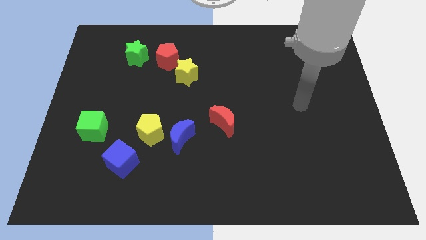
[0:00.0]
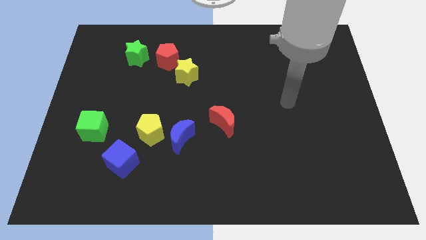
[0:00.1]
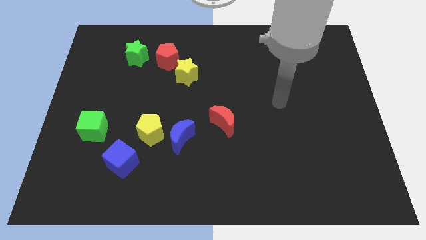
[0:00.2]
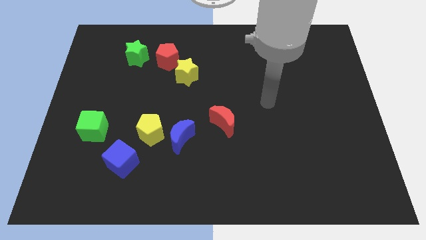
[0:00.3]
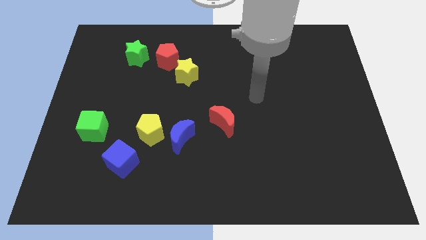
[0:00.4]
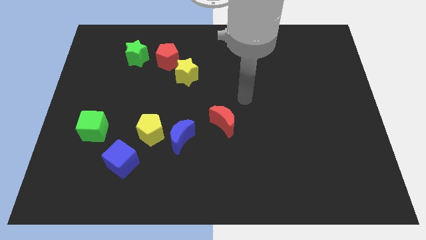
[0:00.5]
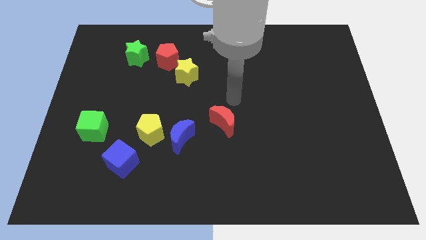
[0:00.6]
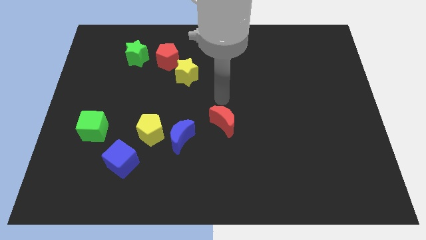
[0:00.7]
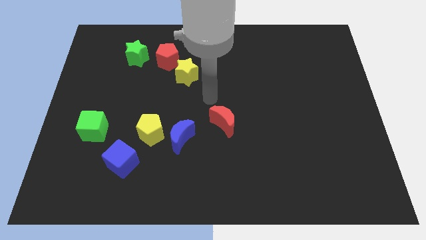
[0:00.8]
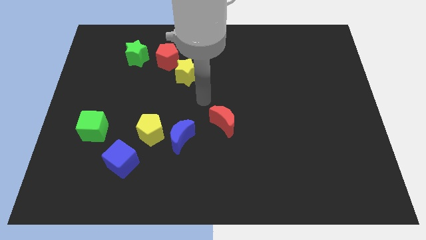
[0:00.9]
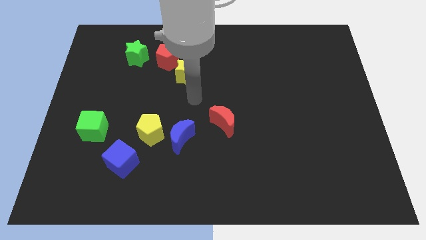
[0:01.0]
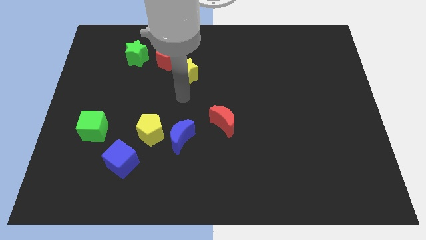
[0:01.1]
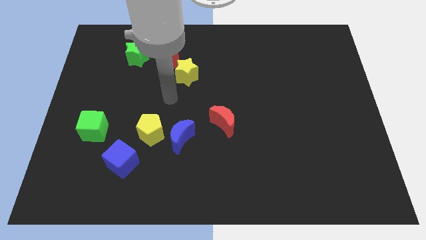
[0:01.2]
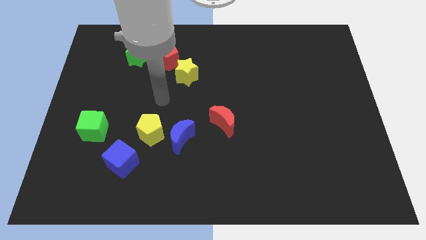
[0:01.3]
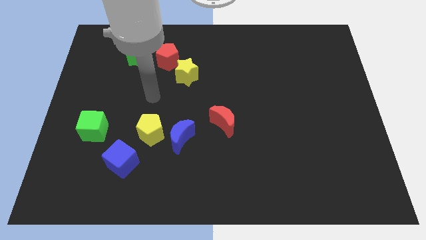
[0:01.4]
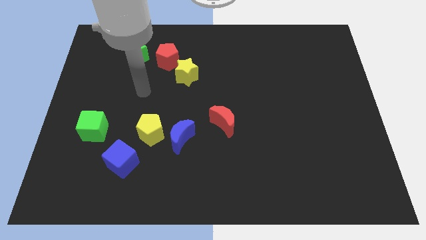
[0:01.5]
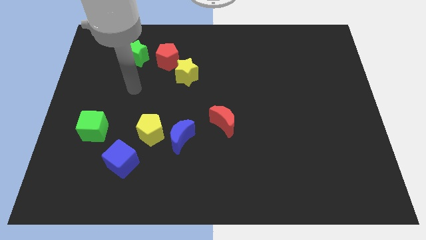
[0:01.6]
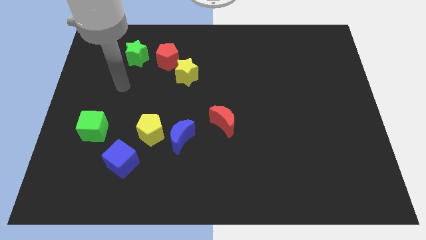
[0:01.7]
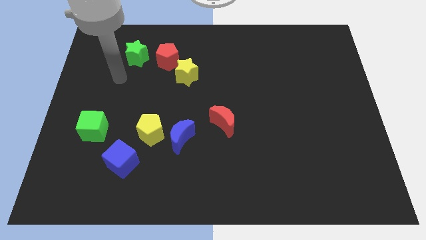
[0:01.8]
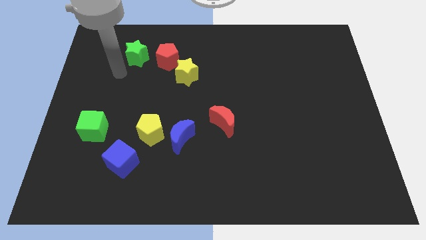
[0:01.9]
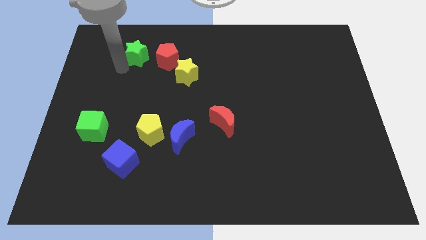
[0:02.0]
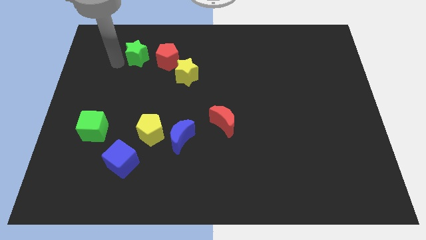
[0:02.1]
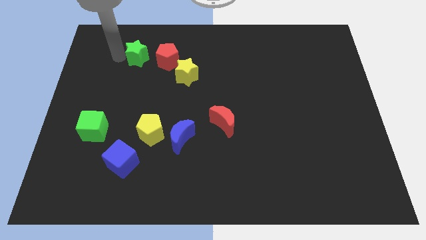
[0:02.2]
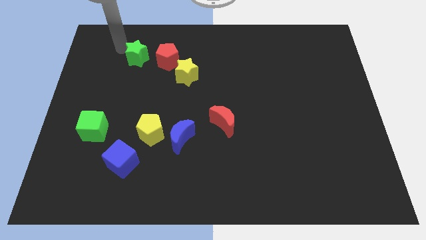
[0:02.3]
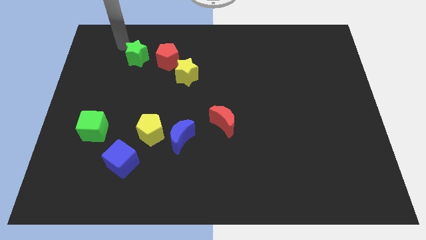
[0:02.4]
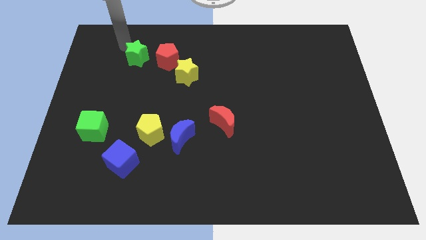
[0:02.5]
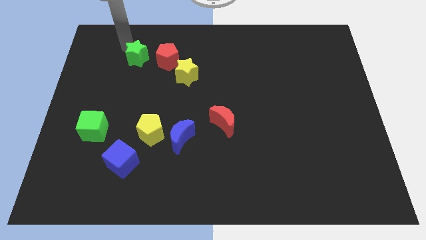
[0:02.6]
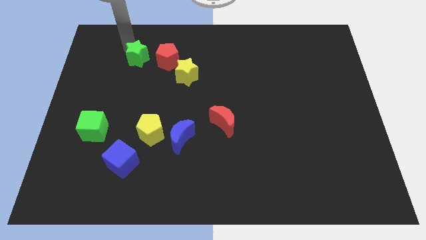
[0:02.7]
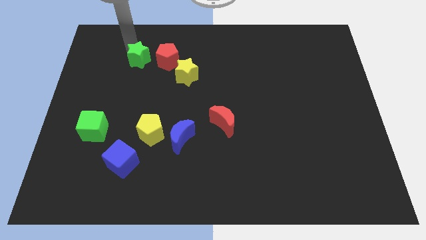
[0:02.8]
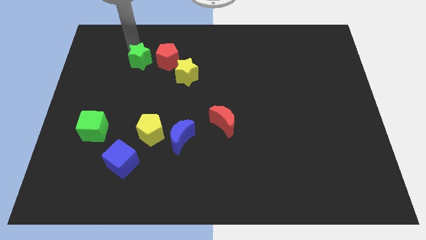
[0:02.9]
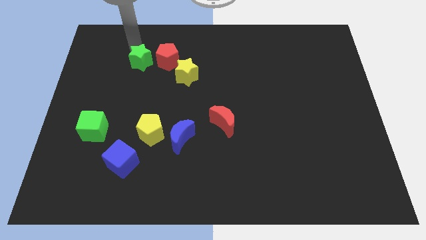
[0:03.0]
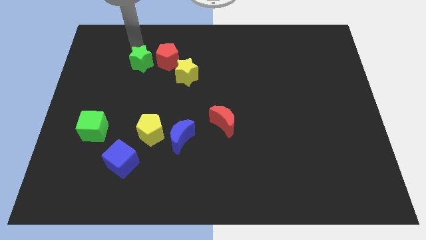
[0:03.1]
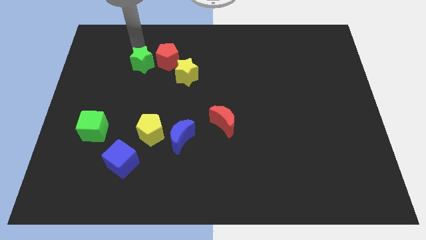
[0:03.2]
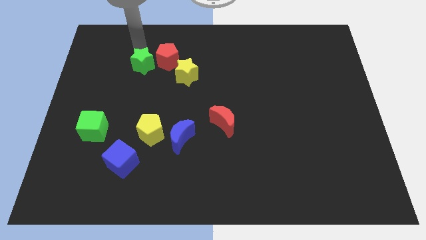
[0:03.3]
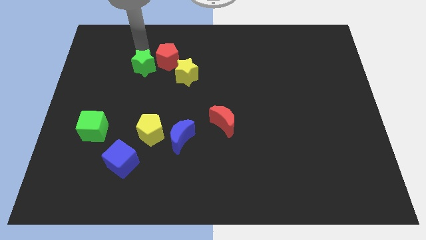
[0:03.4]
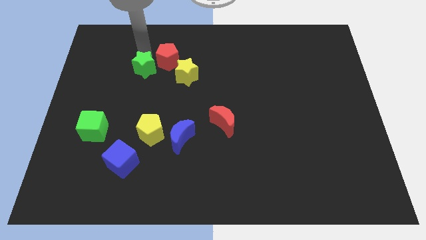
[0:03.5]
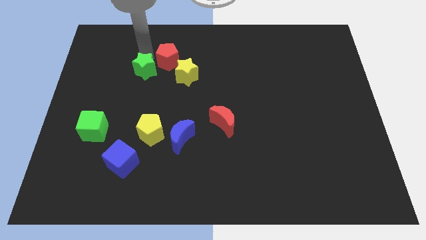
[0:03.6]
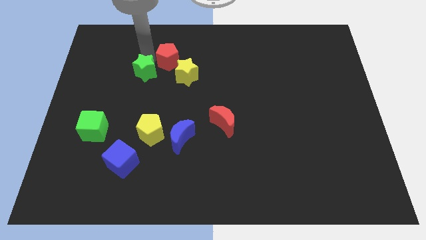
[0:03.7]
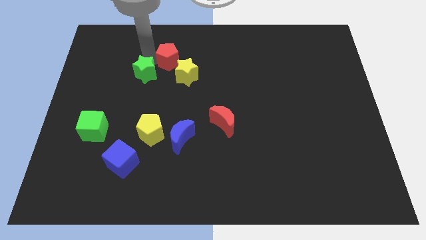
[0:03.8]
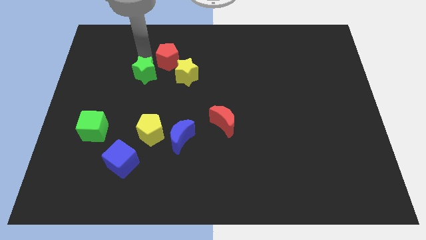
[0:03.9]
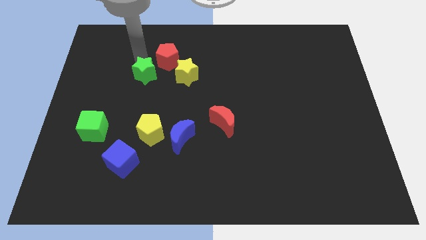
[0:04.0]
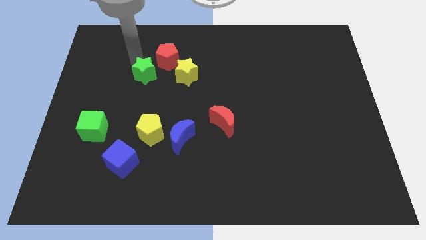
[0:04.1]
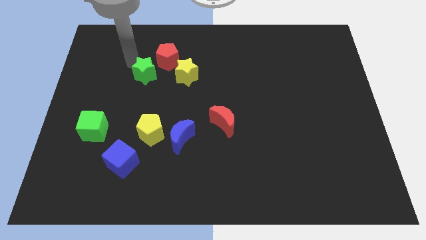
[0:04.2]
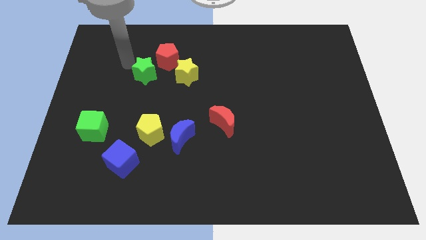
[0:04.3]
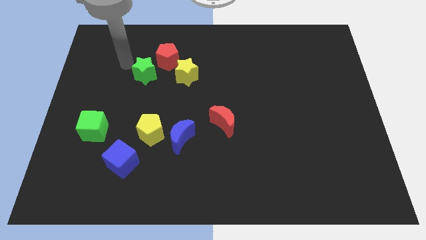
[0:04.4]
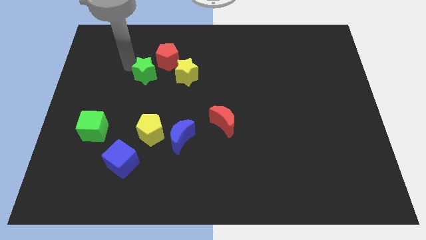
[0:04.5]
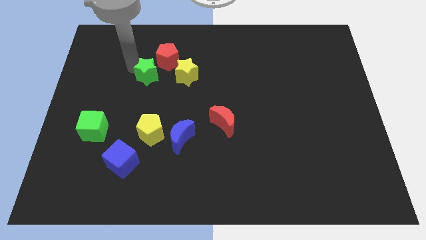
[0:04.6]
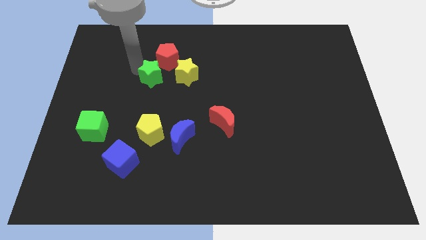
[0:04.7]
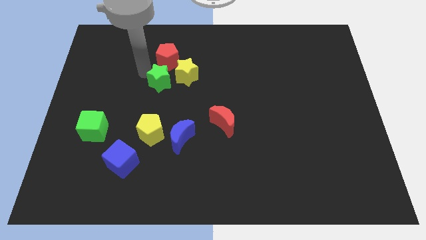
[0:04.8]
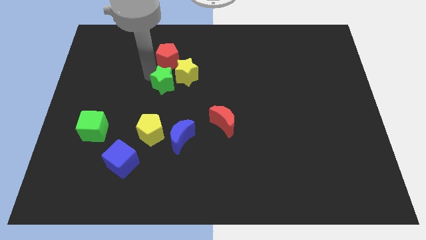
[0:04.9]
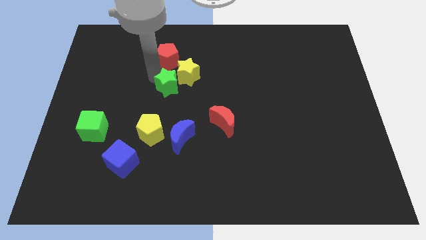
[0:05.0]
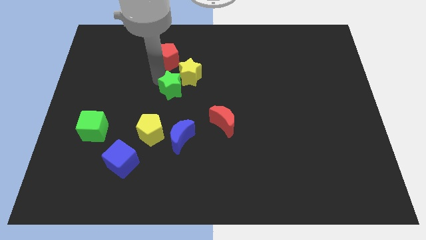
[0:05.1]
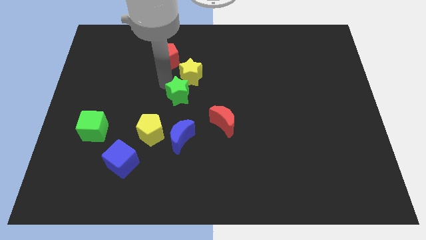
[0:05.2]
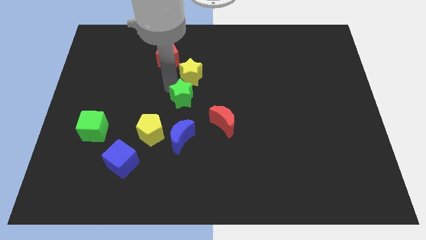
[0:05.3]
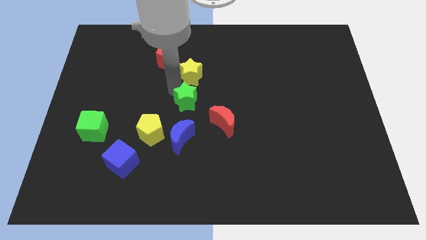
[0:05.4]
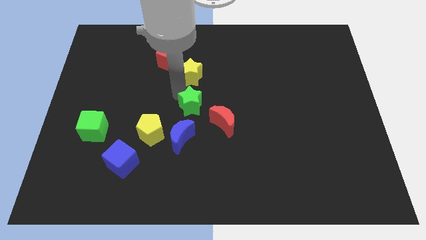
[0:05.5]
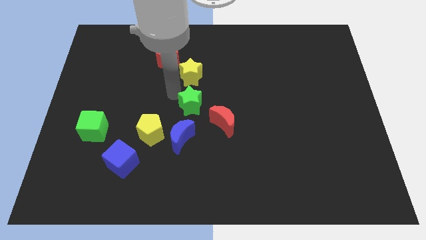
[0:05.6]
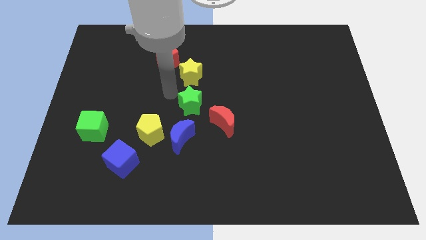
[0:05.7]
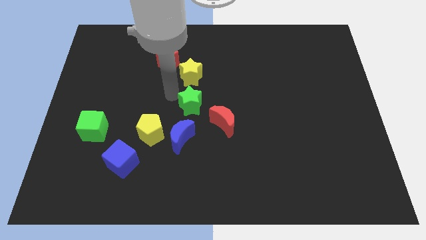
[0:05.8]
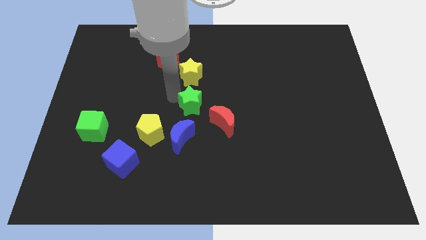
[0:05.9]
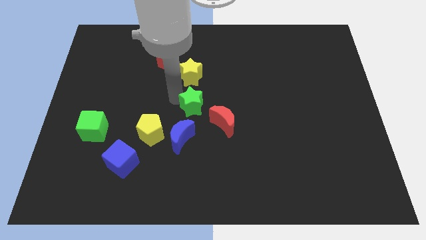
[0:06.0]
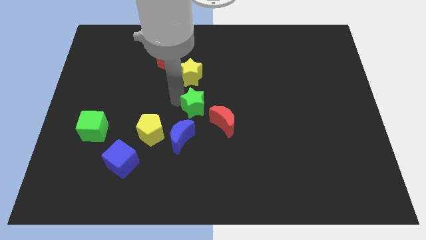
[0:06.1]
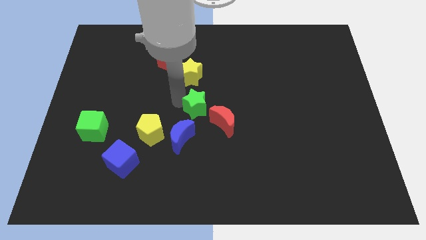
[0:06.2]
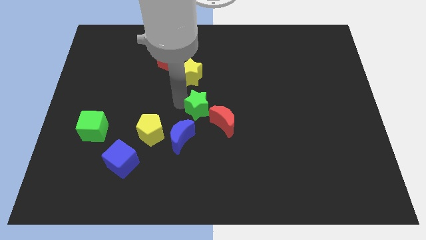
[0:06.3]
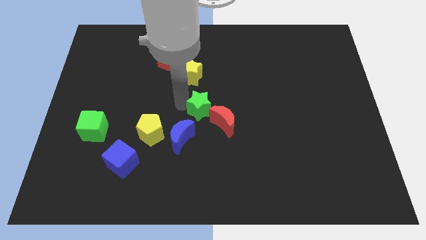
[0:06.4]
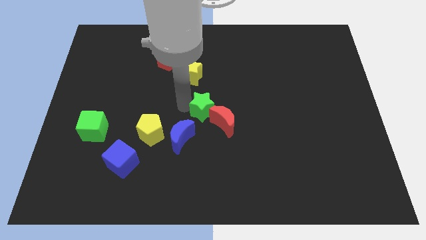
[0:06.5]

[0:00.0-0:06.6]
slide the green star next to the red moon

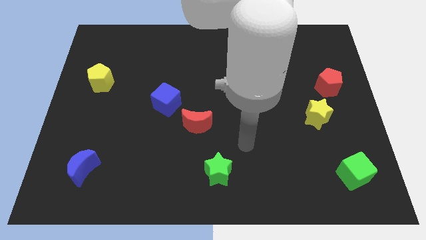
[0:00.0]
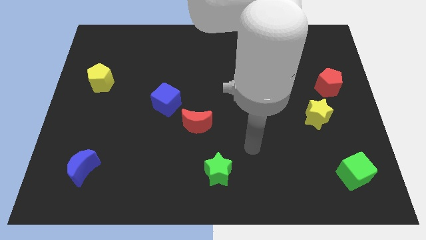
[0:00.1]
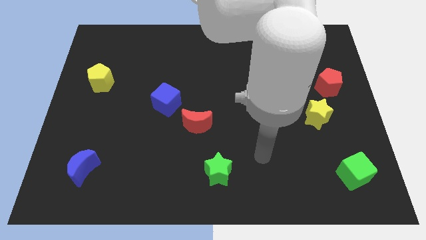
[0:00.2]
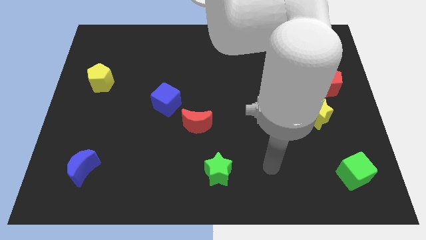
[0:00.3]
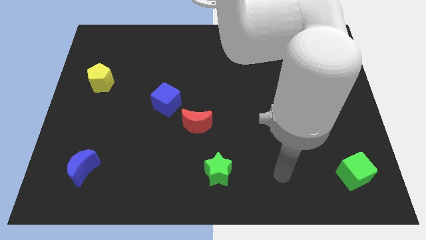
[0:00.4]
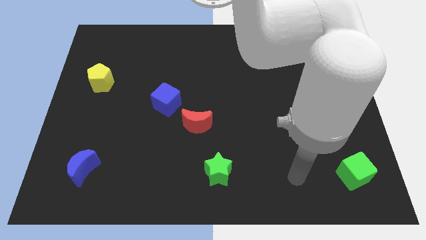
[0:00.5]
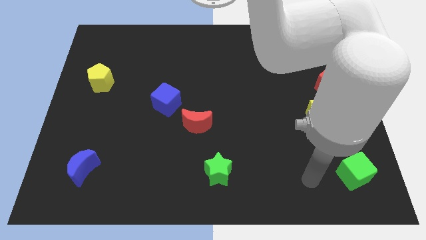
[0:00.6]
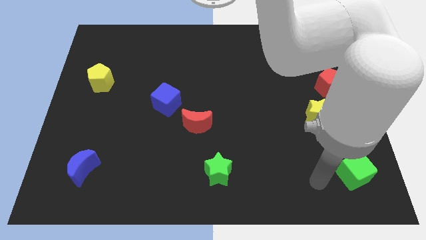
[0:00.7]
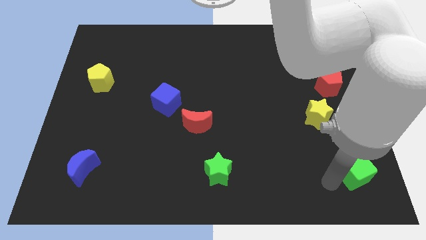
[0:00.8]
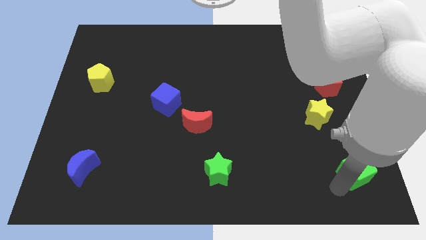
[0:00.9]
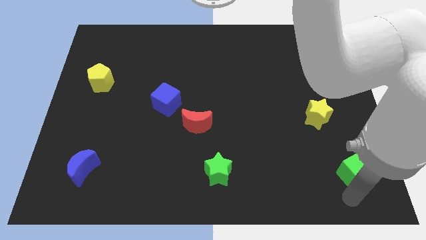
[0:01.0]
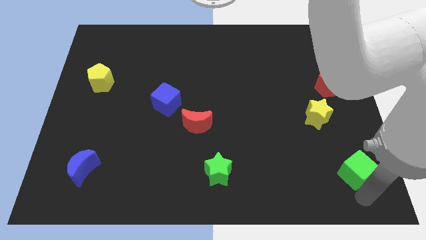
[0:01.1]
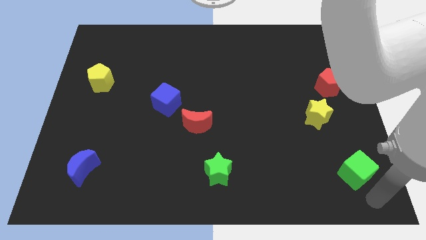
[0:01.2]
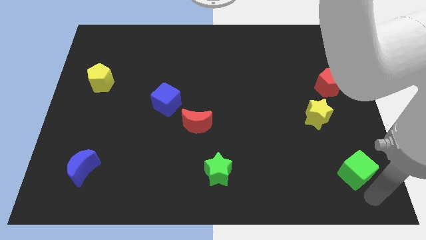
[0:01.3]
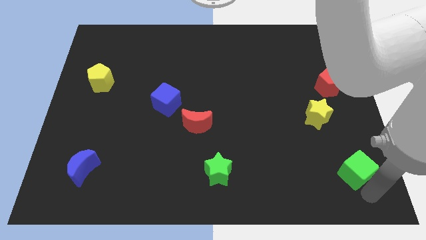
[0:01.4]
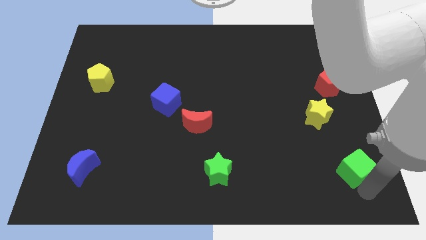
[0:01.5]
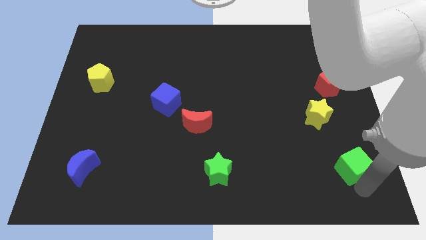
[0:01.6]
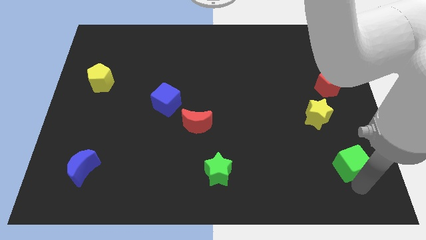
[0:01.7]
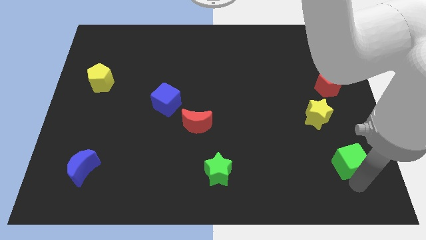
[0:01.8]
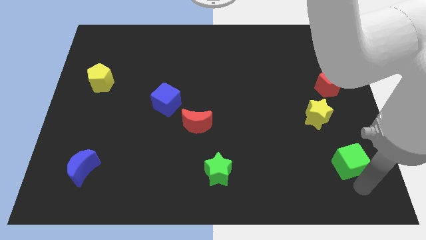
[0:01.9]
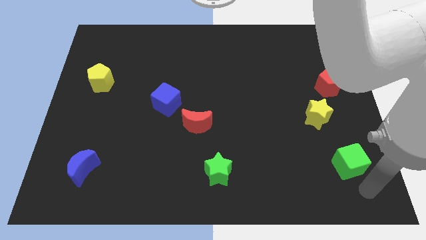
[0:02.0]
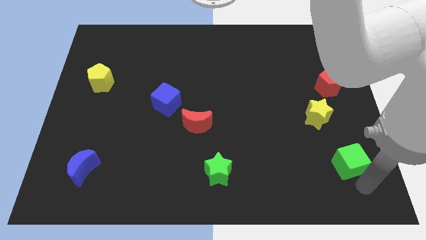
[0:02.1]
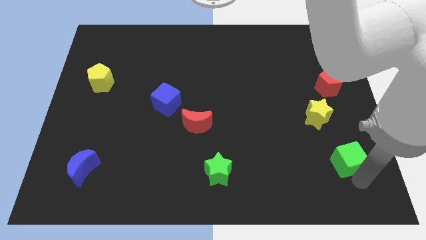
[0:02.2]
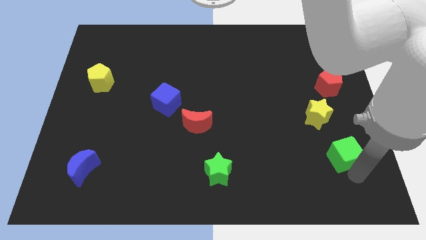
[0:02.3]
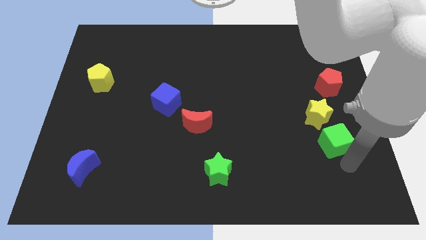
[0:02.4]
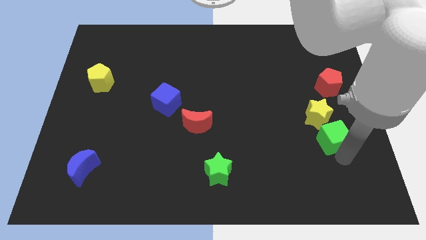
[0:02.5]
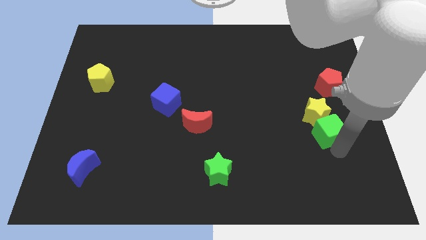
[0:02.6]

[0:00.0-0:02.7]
slide the green cube next to the yellow star
